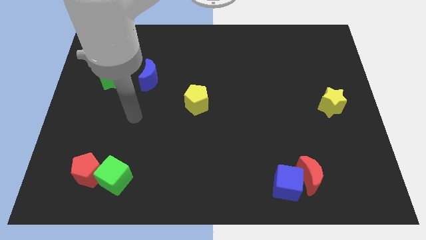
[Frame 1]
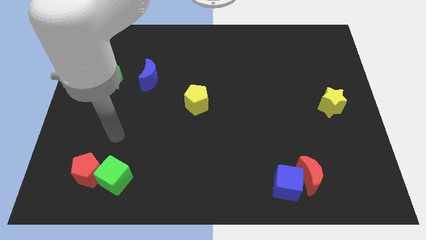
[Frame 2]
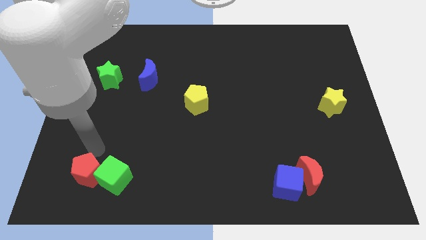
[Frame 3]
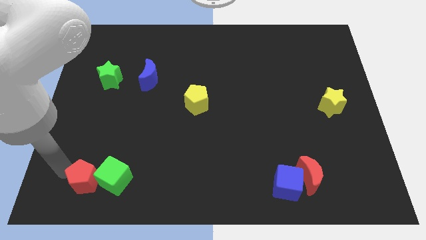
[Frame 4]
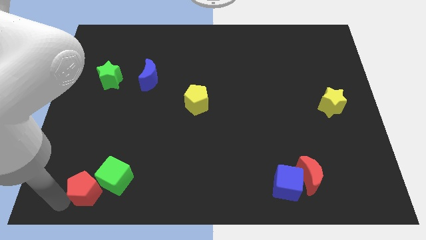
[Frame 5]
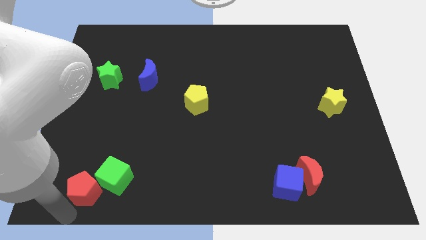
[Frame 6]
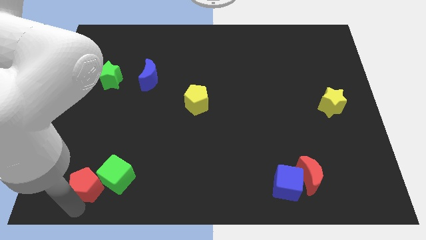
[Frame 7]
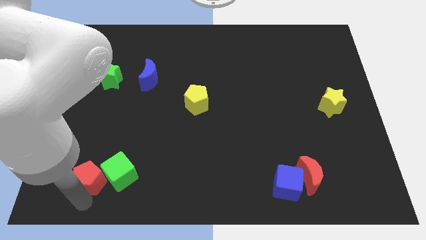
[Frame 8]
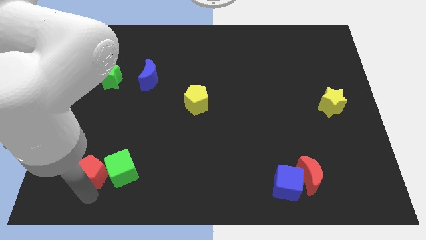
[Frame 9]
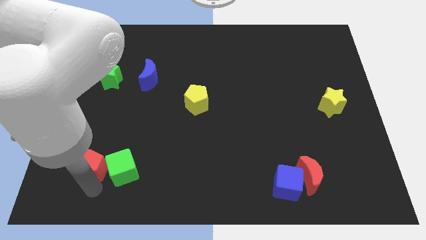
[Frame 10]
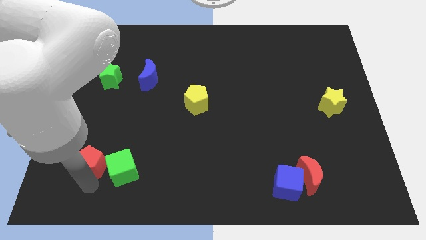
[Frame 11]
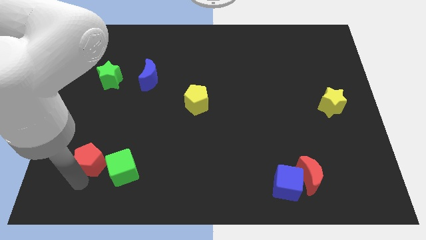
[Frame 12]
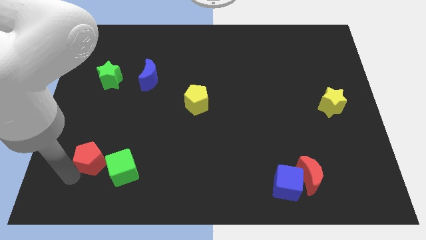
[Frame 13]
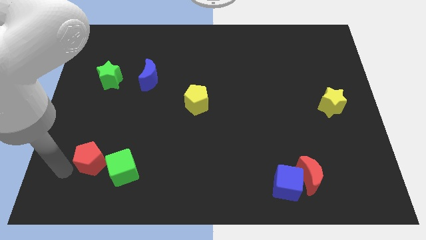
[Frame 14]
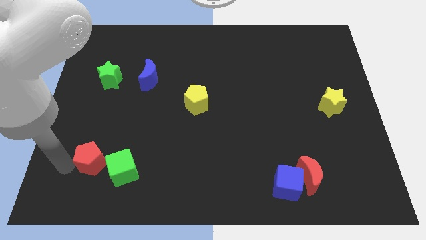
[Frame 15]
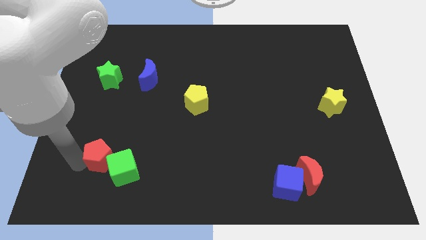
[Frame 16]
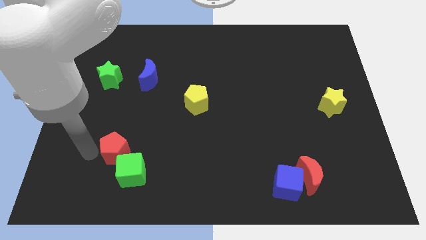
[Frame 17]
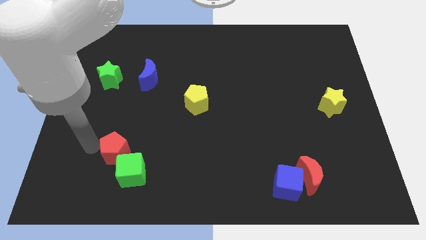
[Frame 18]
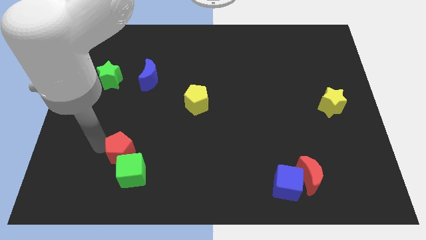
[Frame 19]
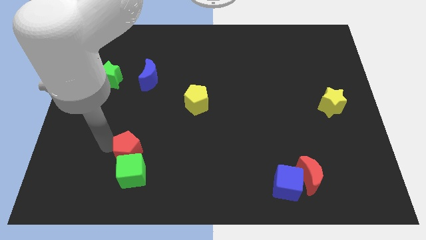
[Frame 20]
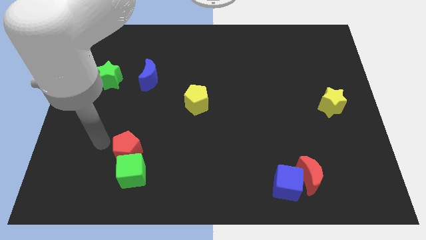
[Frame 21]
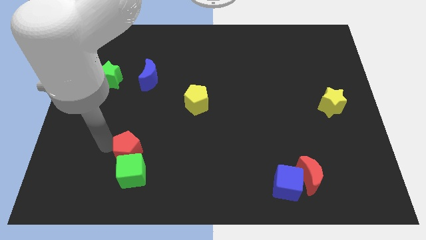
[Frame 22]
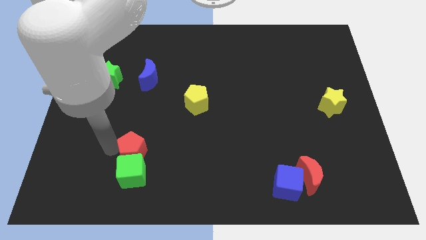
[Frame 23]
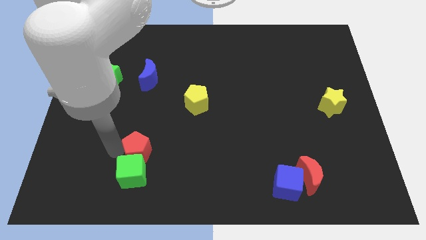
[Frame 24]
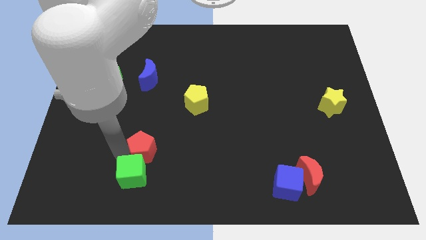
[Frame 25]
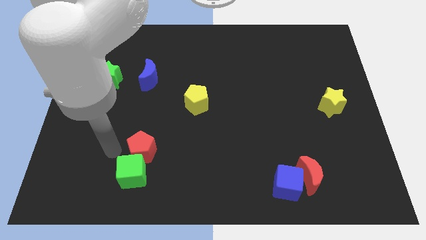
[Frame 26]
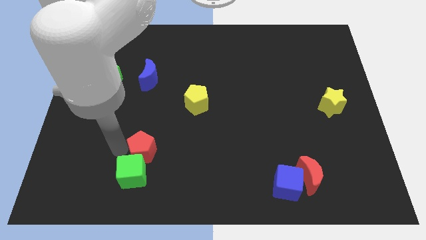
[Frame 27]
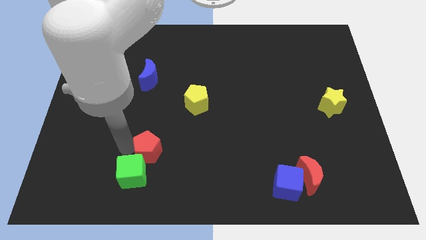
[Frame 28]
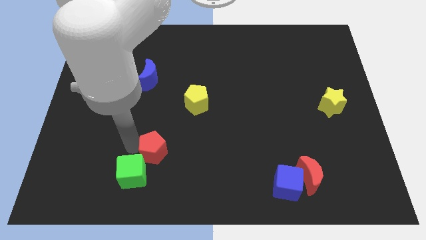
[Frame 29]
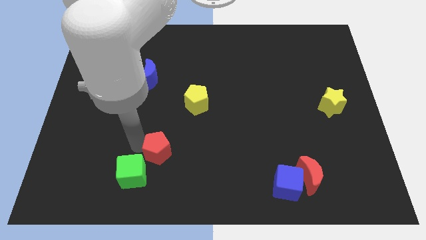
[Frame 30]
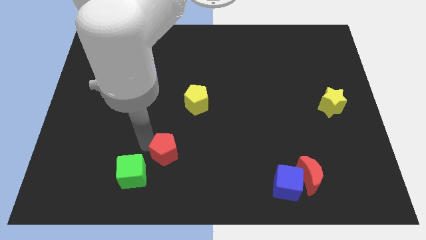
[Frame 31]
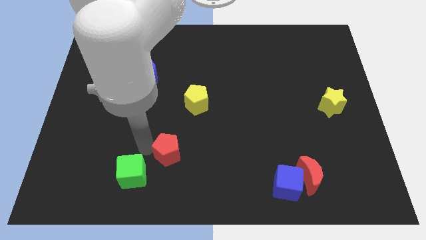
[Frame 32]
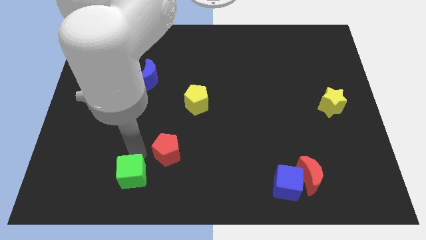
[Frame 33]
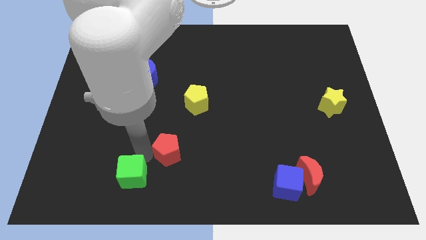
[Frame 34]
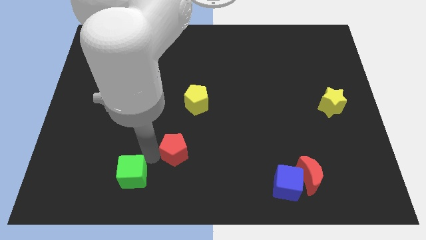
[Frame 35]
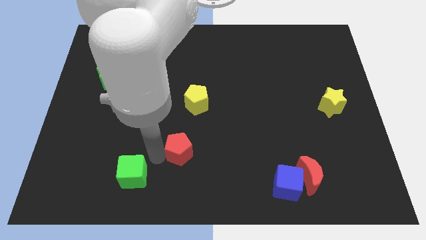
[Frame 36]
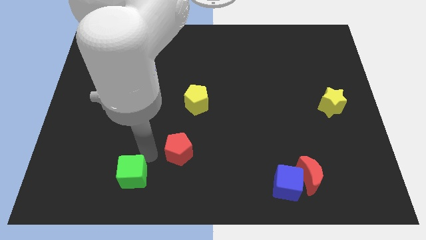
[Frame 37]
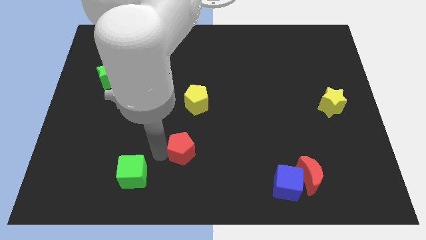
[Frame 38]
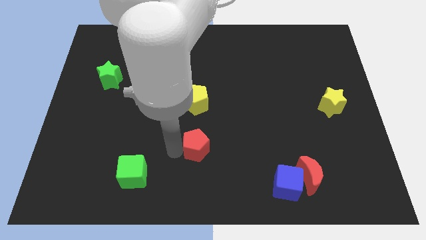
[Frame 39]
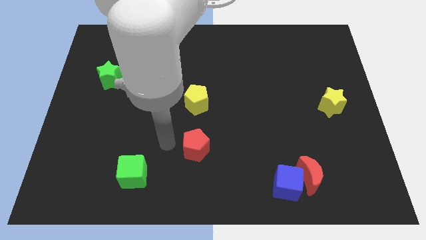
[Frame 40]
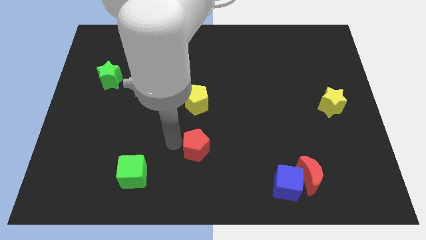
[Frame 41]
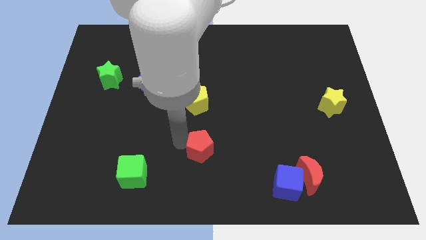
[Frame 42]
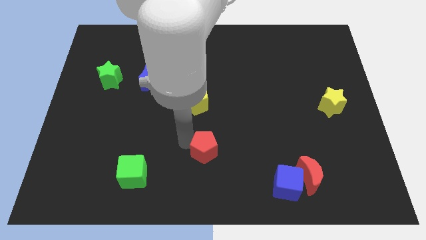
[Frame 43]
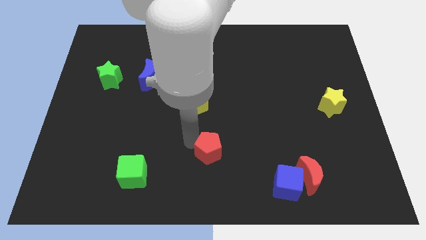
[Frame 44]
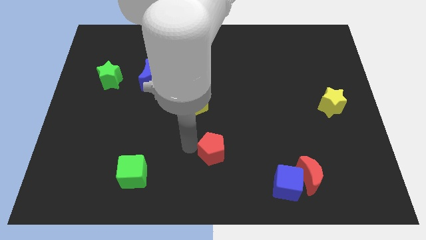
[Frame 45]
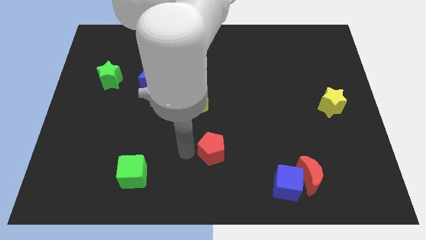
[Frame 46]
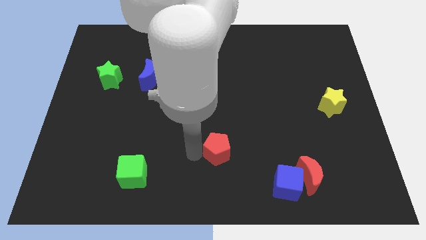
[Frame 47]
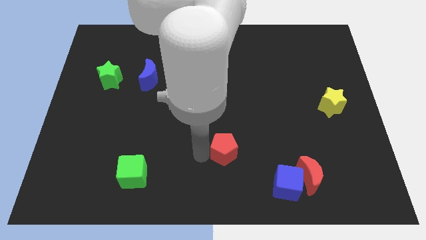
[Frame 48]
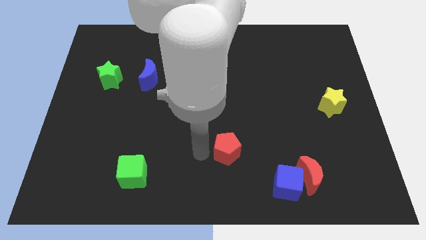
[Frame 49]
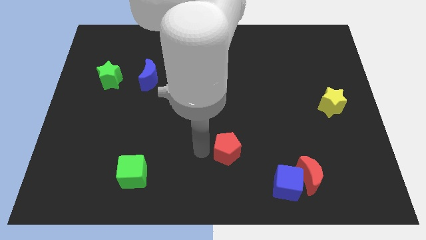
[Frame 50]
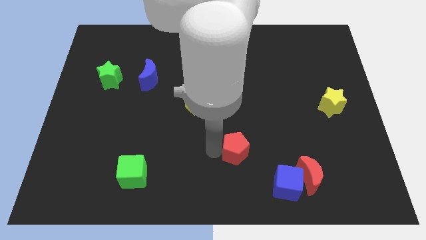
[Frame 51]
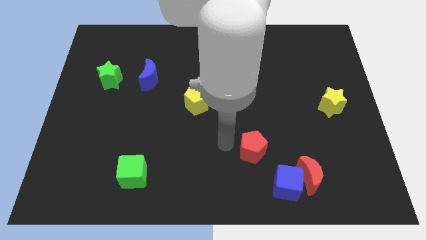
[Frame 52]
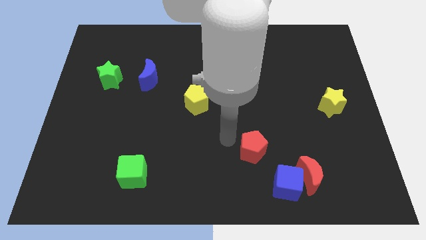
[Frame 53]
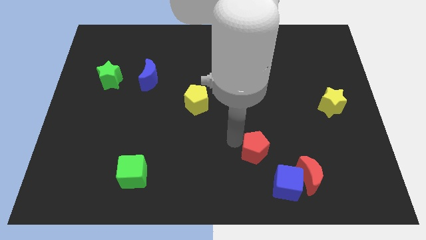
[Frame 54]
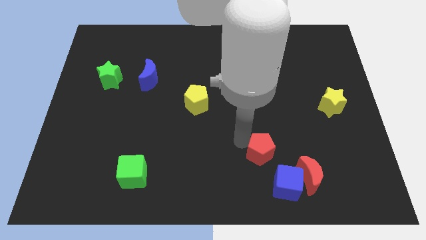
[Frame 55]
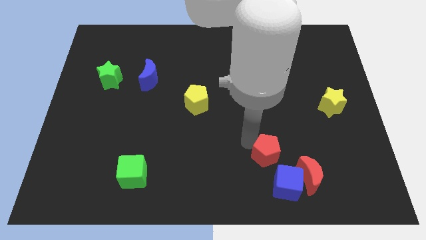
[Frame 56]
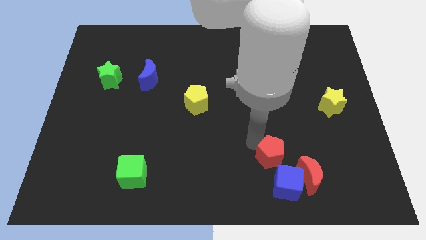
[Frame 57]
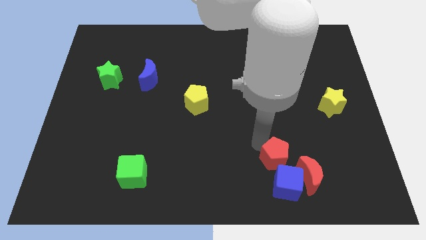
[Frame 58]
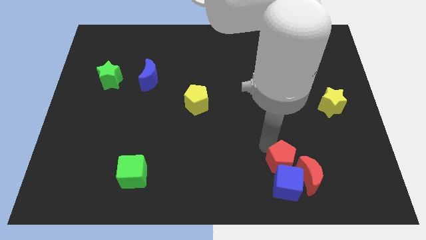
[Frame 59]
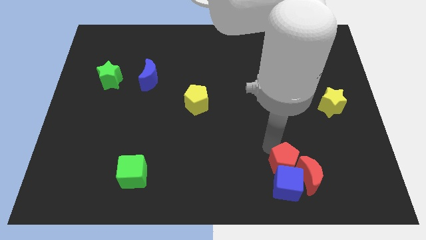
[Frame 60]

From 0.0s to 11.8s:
slide the red pentagon to the red moon

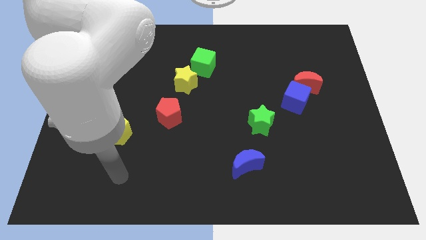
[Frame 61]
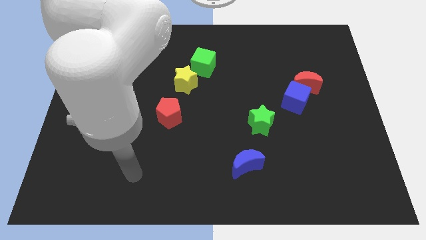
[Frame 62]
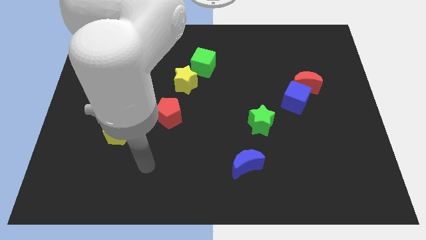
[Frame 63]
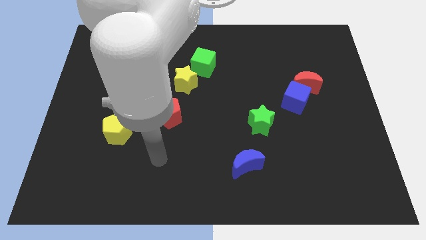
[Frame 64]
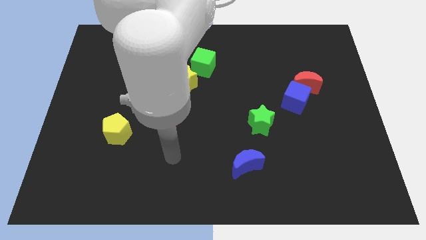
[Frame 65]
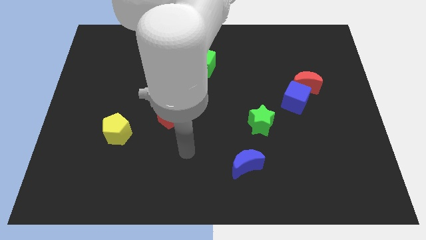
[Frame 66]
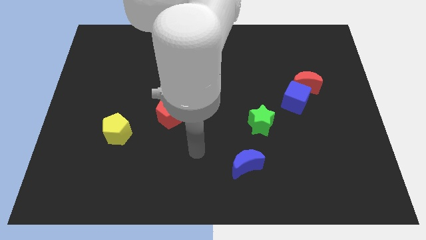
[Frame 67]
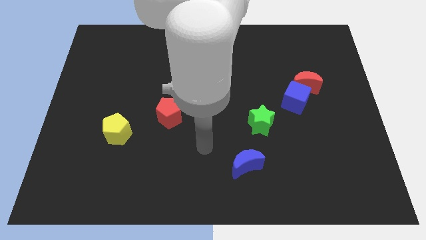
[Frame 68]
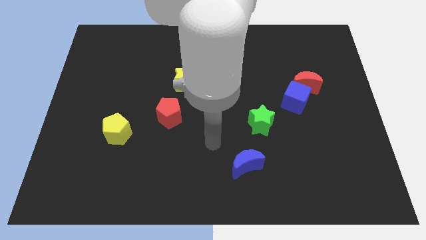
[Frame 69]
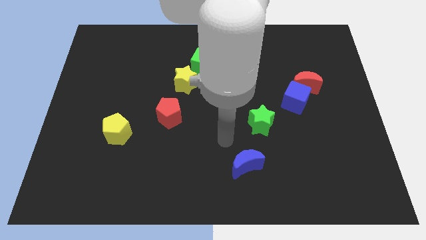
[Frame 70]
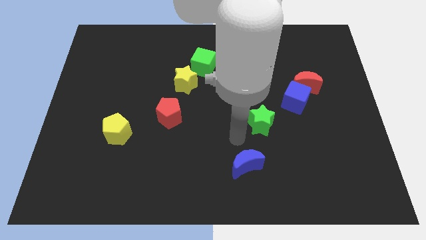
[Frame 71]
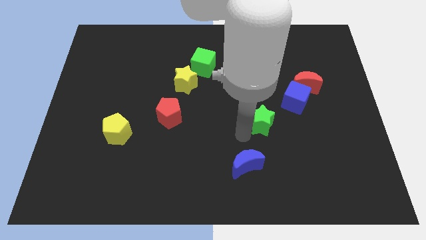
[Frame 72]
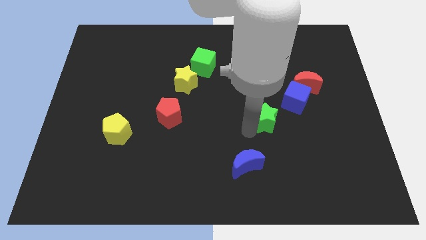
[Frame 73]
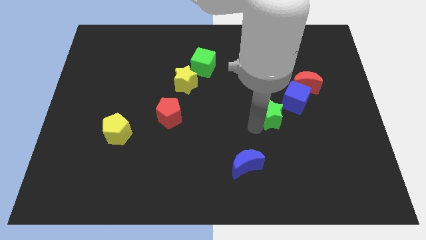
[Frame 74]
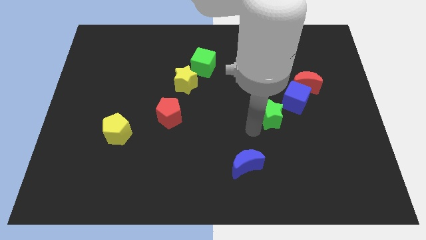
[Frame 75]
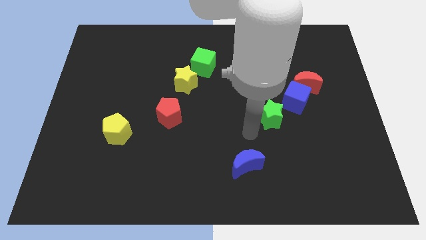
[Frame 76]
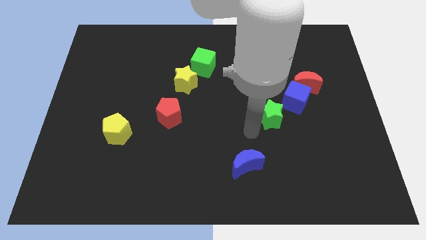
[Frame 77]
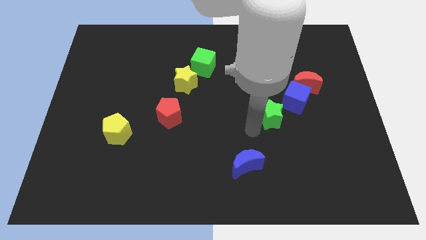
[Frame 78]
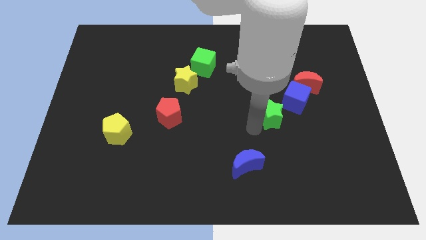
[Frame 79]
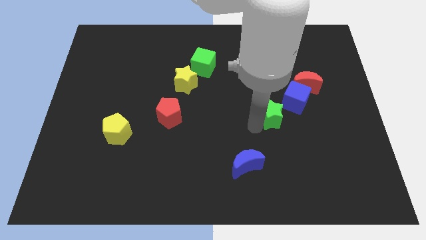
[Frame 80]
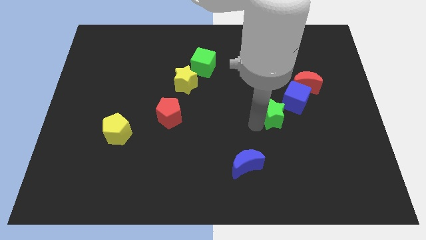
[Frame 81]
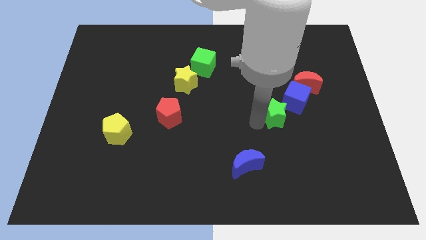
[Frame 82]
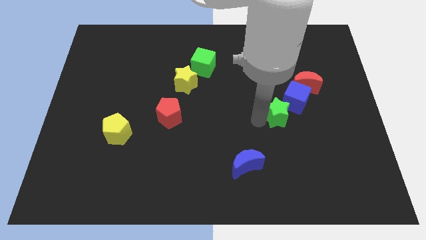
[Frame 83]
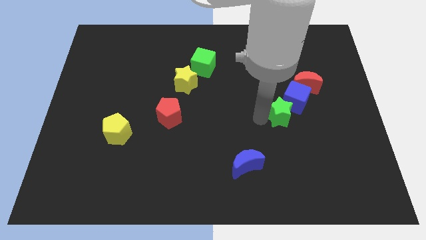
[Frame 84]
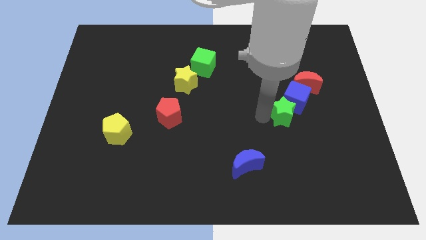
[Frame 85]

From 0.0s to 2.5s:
push the green star to the blue cube
